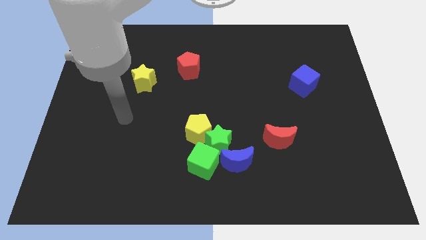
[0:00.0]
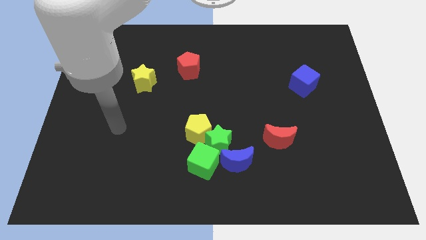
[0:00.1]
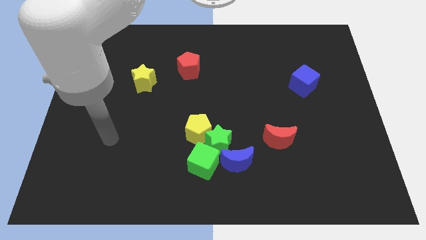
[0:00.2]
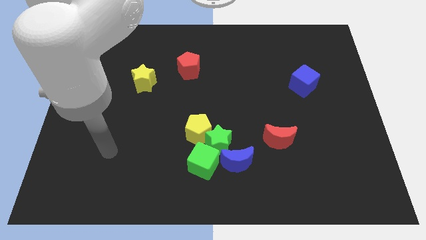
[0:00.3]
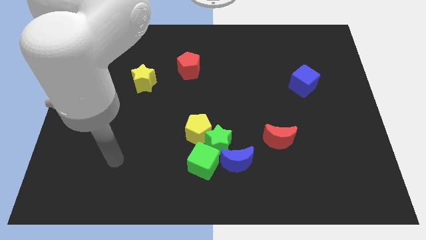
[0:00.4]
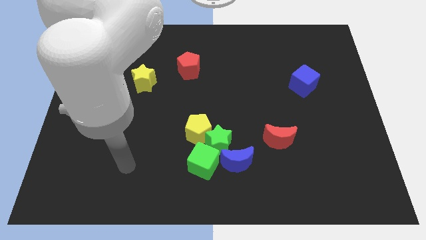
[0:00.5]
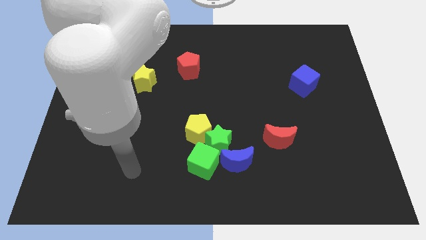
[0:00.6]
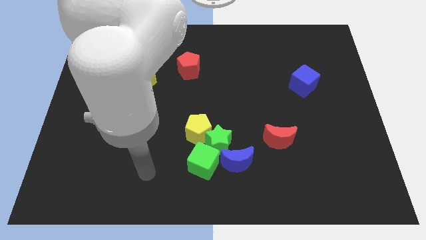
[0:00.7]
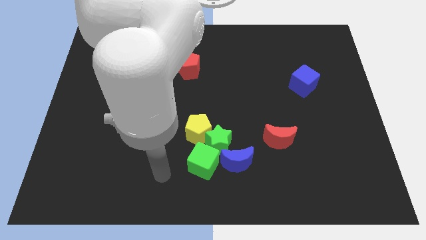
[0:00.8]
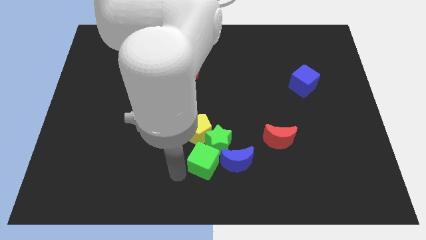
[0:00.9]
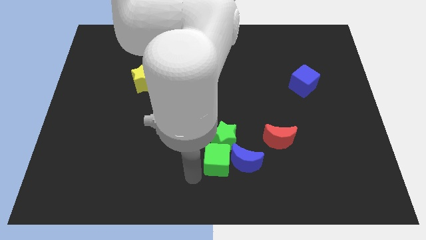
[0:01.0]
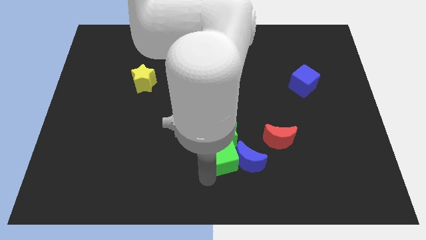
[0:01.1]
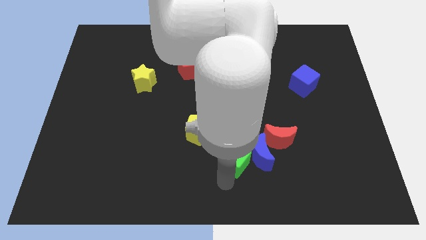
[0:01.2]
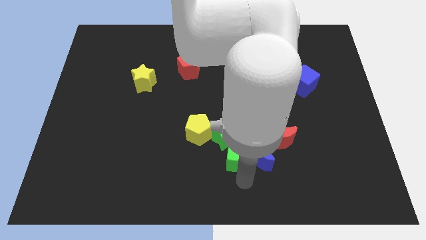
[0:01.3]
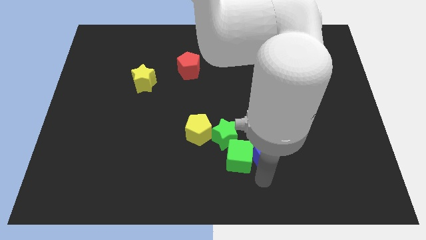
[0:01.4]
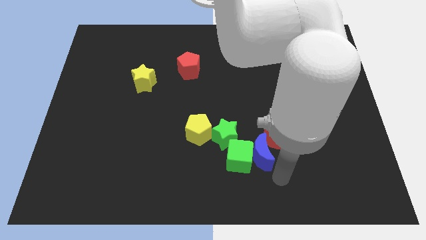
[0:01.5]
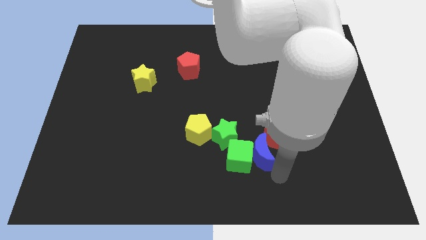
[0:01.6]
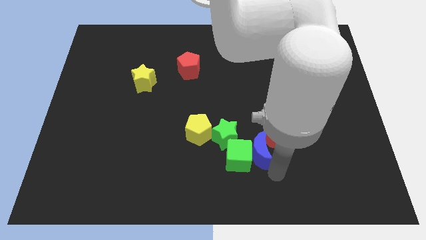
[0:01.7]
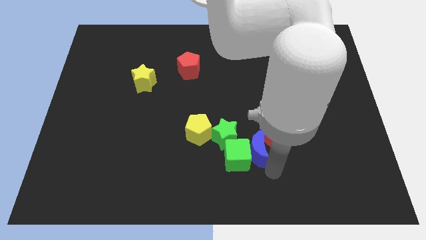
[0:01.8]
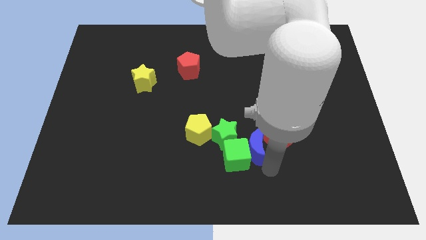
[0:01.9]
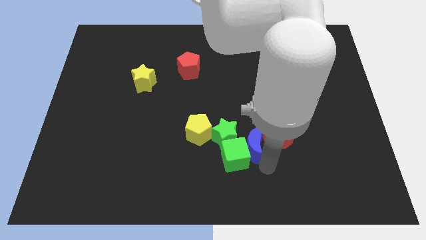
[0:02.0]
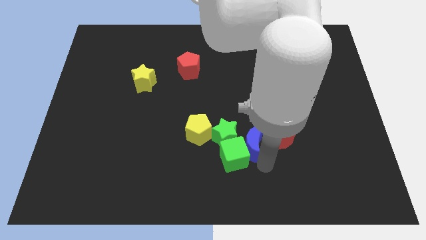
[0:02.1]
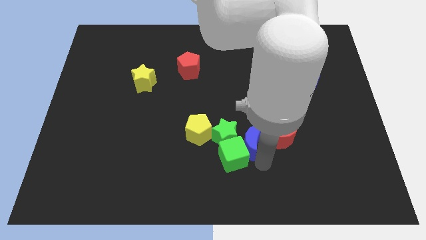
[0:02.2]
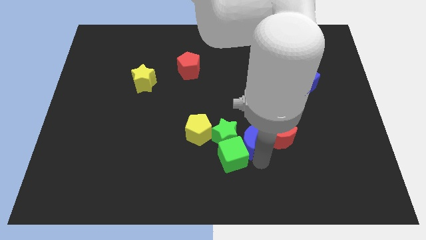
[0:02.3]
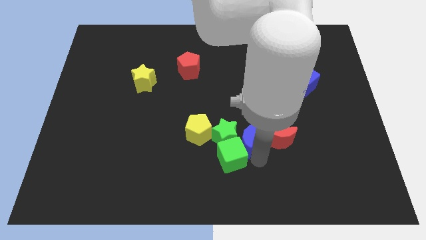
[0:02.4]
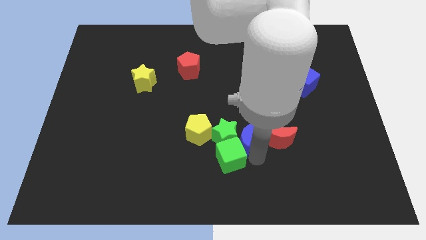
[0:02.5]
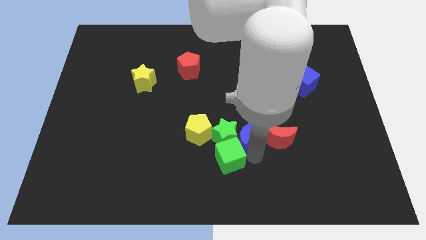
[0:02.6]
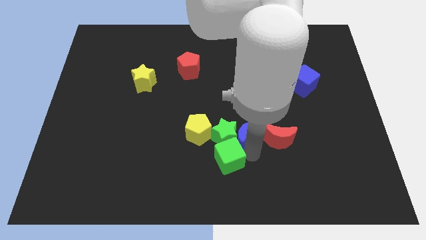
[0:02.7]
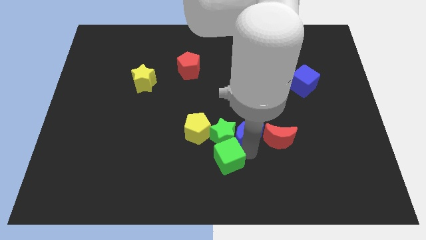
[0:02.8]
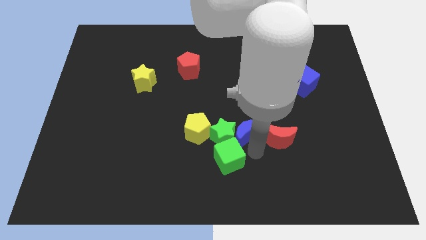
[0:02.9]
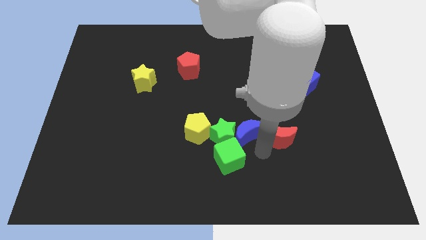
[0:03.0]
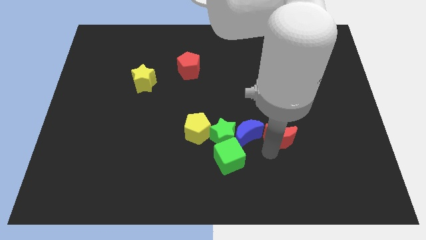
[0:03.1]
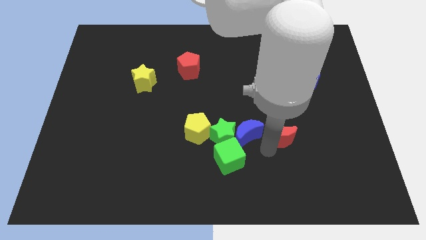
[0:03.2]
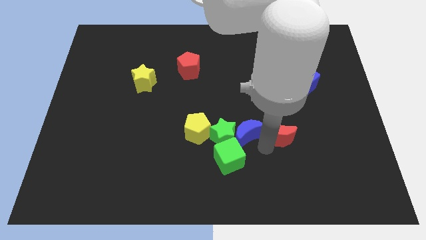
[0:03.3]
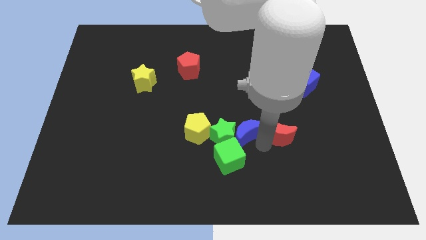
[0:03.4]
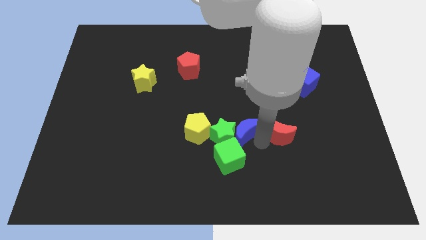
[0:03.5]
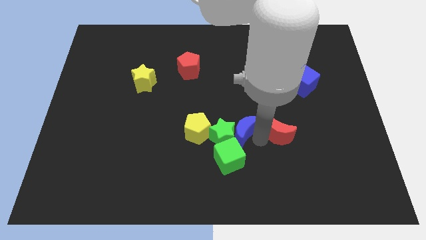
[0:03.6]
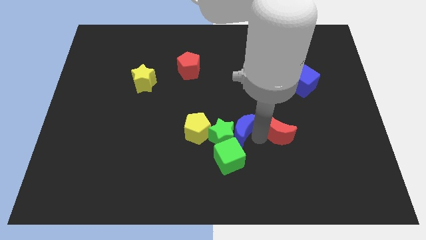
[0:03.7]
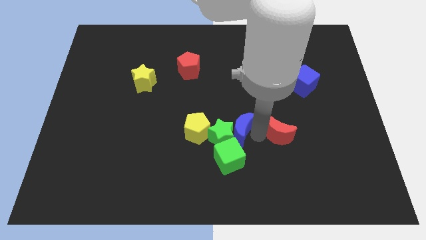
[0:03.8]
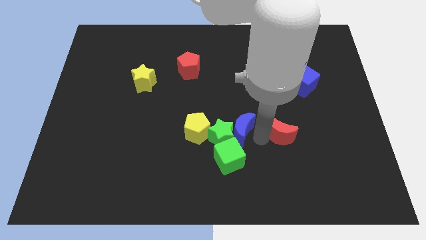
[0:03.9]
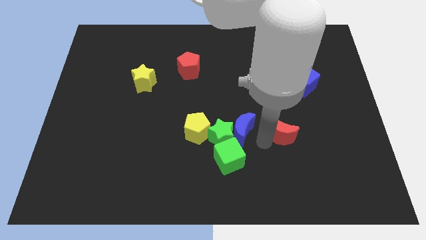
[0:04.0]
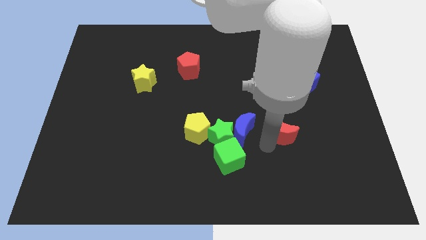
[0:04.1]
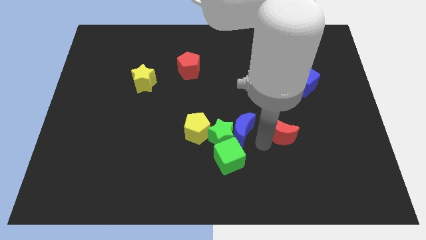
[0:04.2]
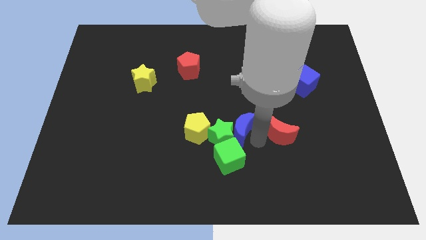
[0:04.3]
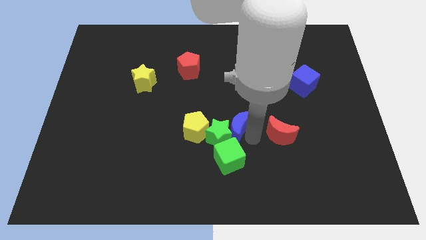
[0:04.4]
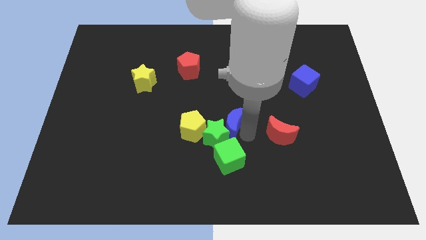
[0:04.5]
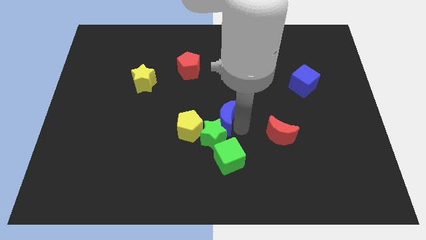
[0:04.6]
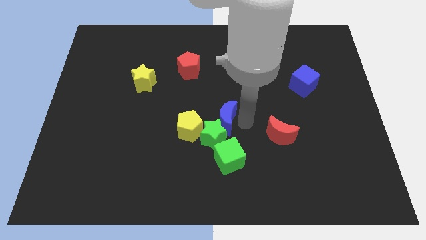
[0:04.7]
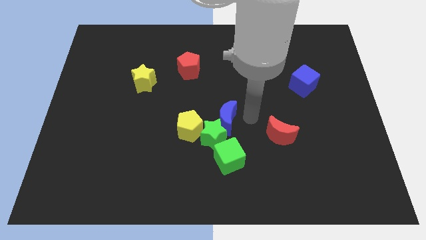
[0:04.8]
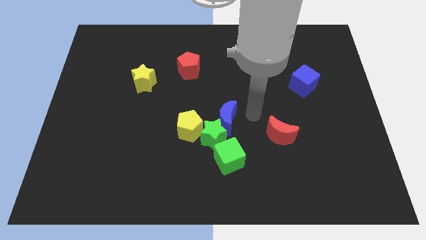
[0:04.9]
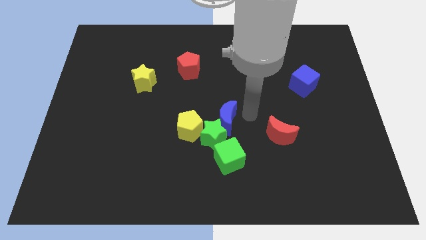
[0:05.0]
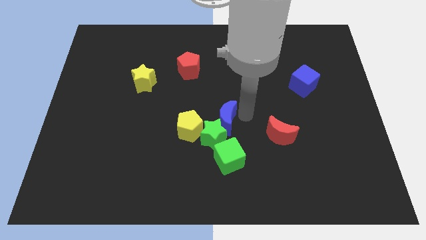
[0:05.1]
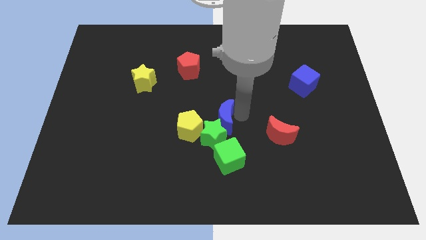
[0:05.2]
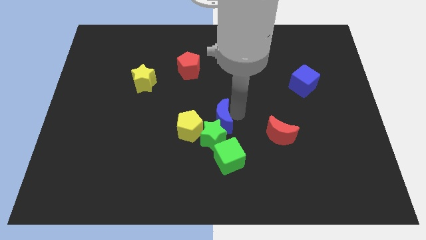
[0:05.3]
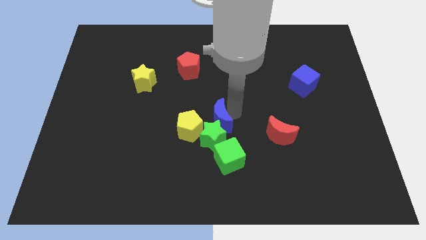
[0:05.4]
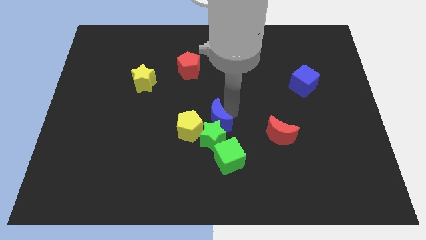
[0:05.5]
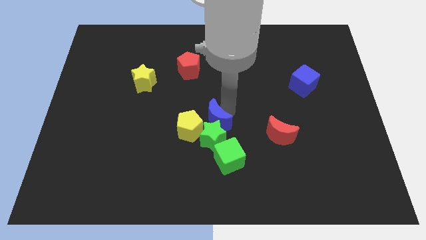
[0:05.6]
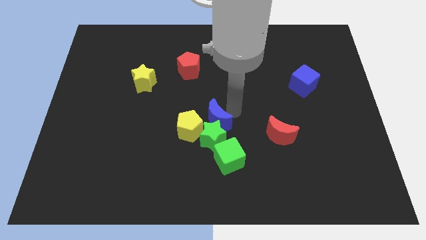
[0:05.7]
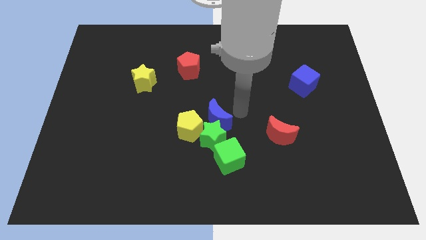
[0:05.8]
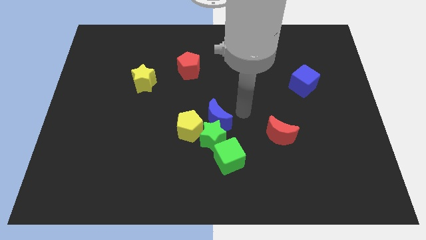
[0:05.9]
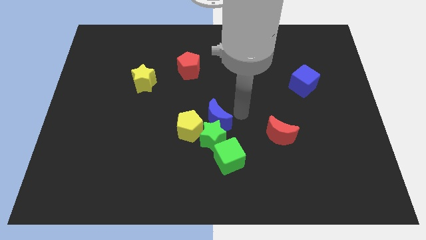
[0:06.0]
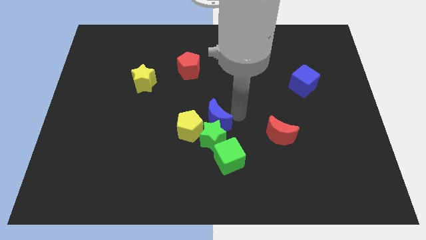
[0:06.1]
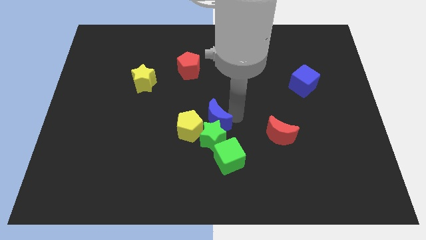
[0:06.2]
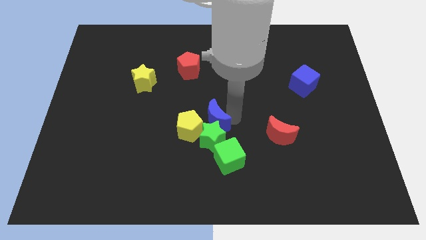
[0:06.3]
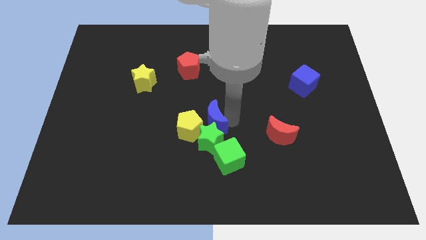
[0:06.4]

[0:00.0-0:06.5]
slide the blue moon to the yellow pentagon

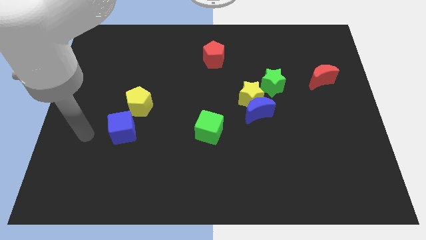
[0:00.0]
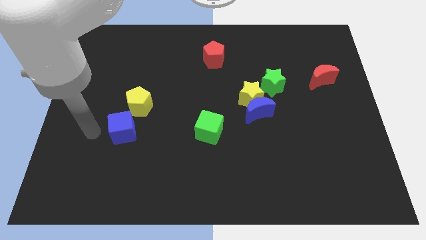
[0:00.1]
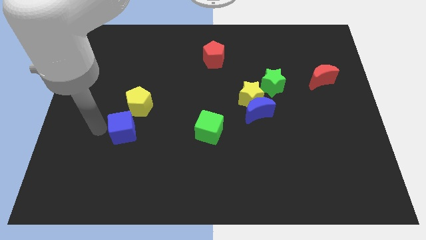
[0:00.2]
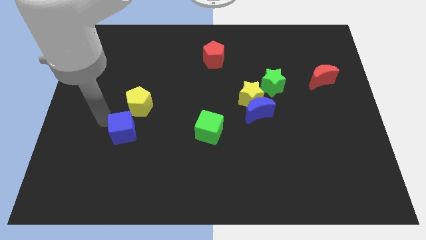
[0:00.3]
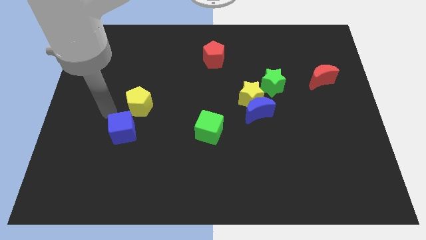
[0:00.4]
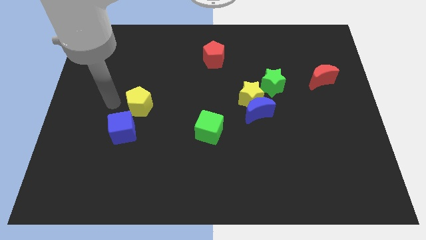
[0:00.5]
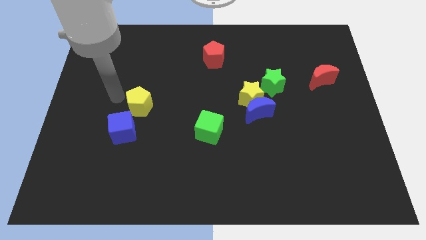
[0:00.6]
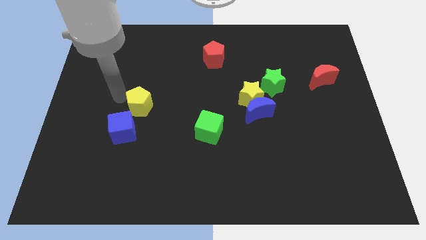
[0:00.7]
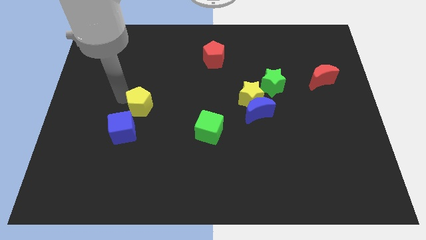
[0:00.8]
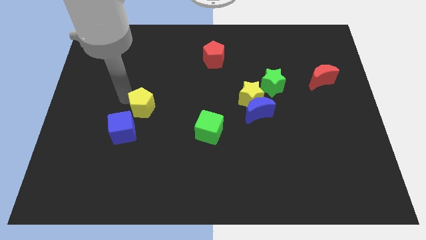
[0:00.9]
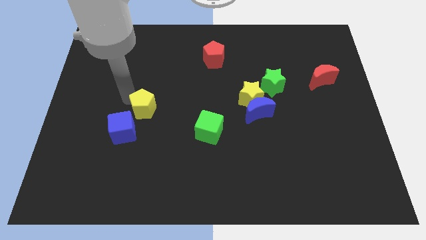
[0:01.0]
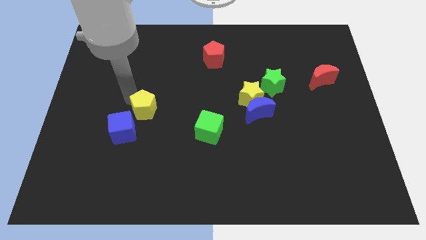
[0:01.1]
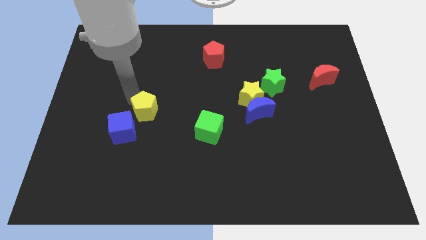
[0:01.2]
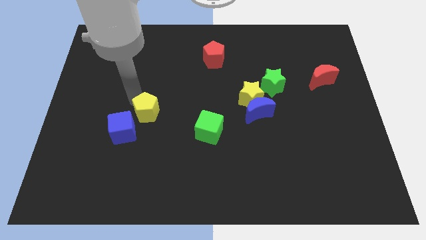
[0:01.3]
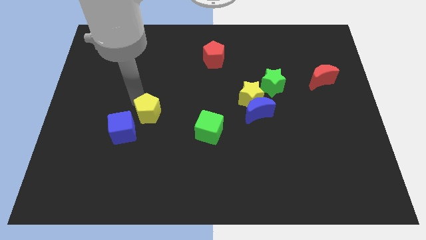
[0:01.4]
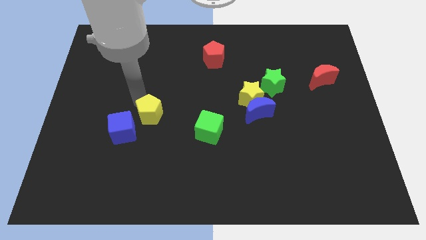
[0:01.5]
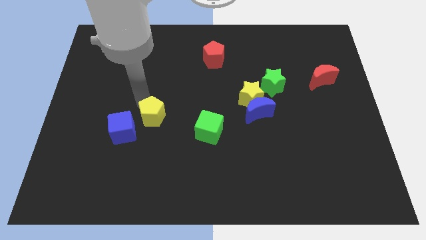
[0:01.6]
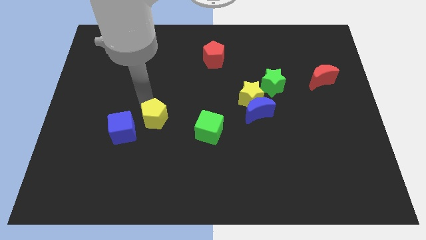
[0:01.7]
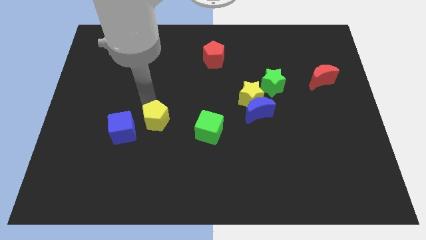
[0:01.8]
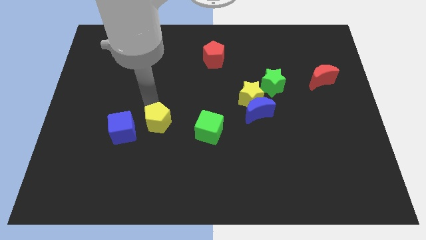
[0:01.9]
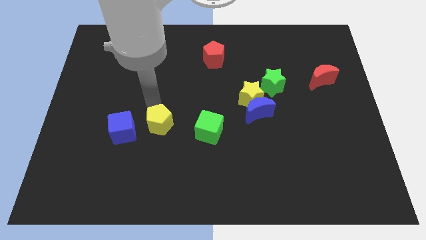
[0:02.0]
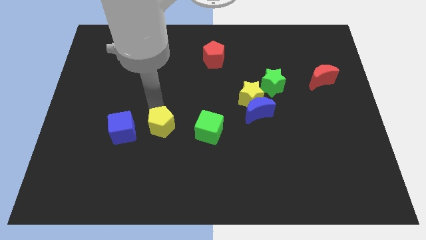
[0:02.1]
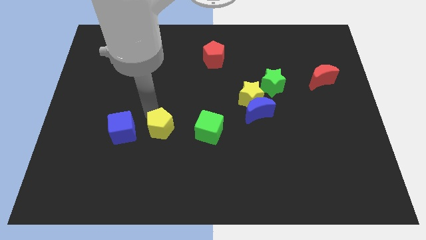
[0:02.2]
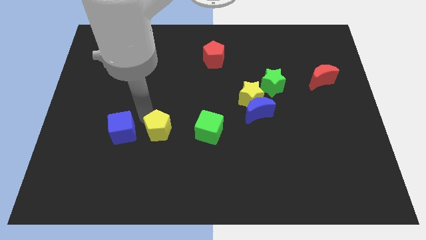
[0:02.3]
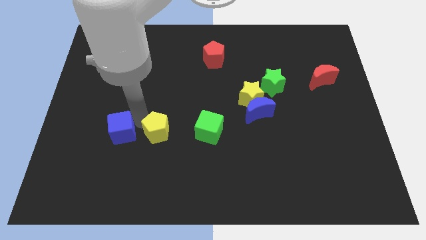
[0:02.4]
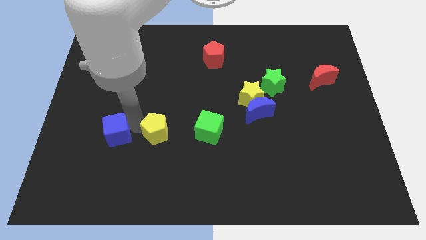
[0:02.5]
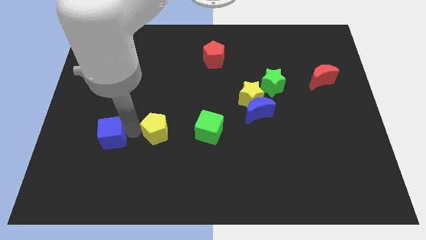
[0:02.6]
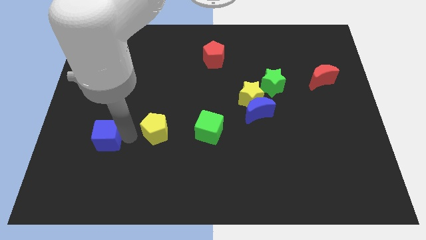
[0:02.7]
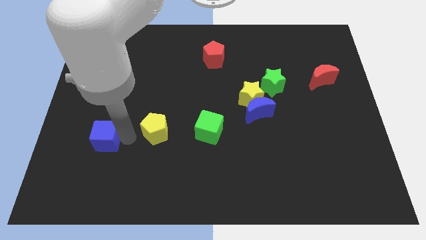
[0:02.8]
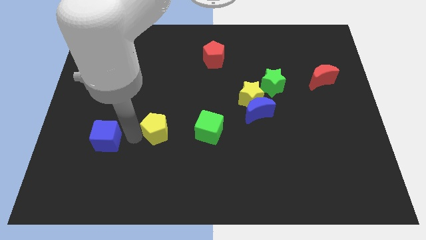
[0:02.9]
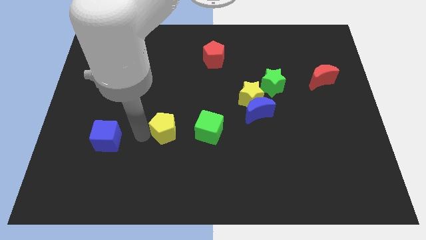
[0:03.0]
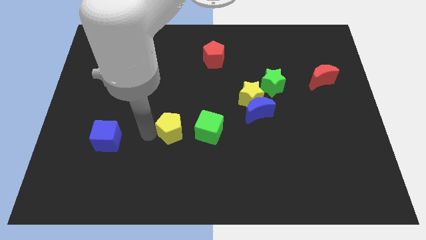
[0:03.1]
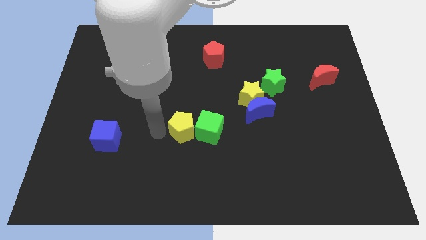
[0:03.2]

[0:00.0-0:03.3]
slide the yellow pentagon close to the green cube
